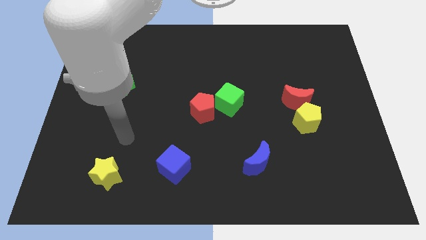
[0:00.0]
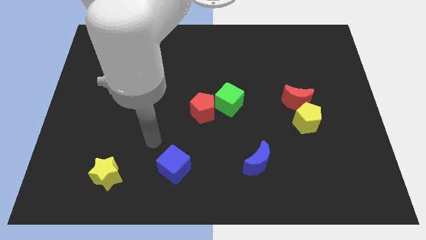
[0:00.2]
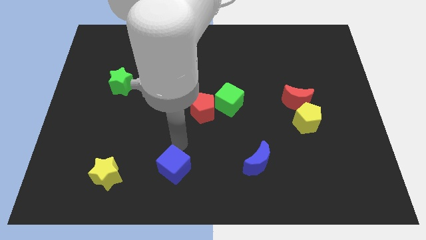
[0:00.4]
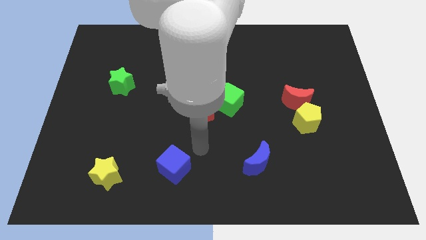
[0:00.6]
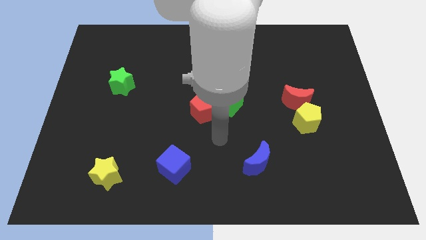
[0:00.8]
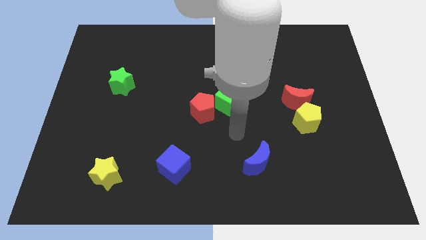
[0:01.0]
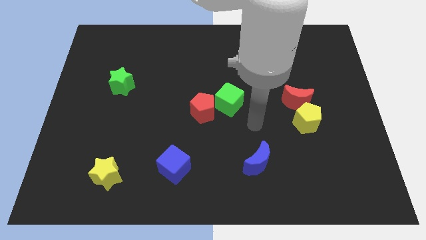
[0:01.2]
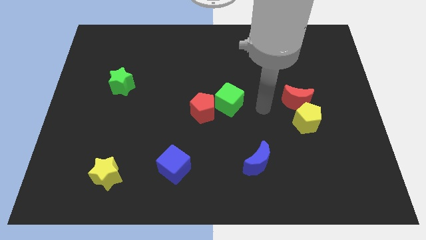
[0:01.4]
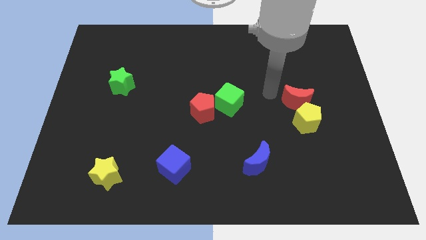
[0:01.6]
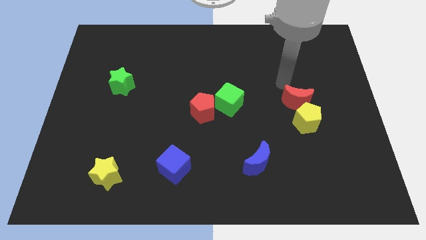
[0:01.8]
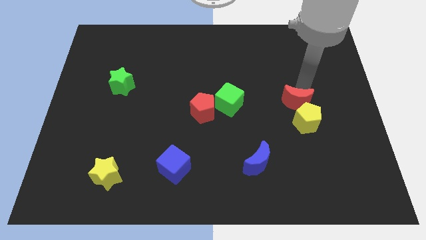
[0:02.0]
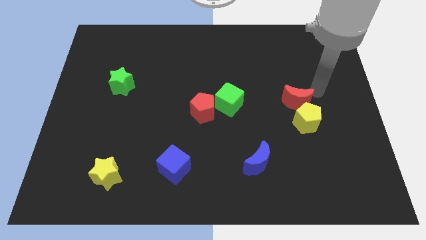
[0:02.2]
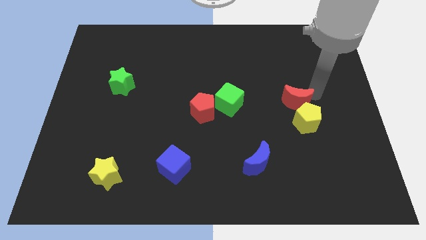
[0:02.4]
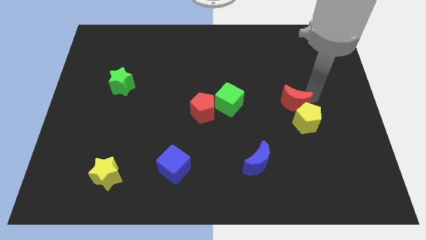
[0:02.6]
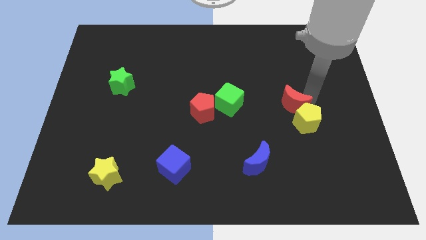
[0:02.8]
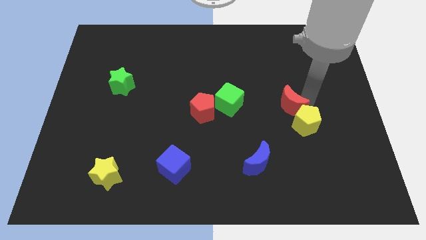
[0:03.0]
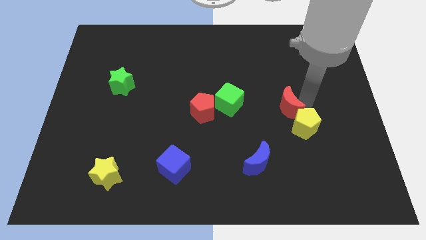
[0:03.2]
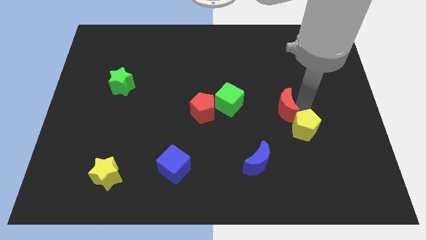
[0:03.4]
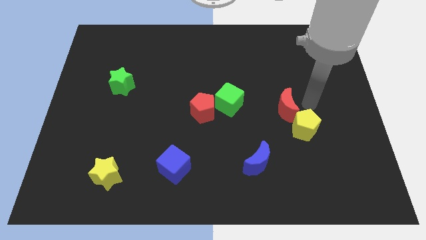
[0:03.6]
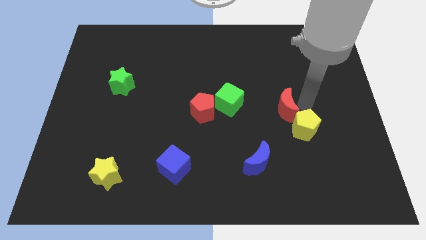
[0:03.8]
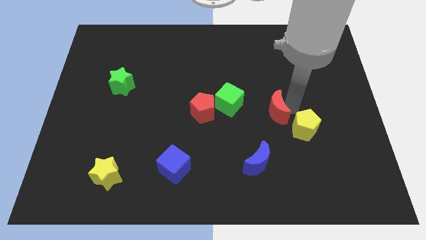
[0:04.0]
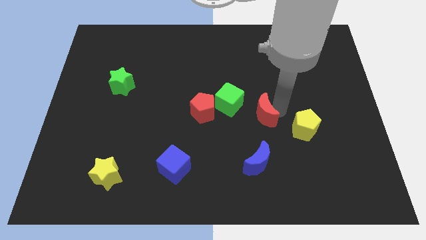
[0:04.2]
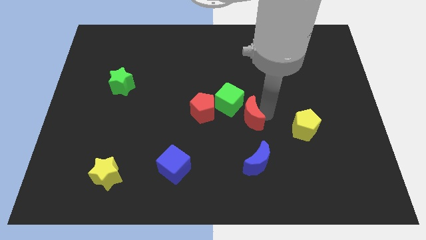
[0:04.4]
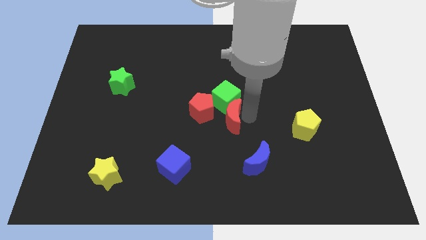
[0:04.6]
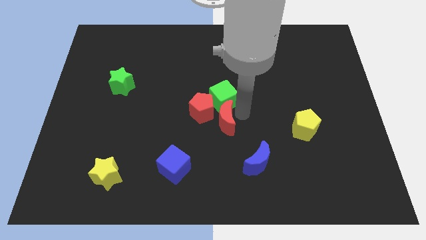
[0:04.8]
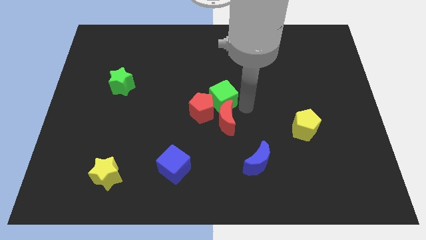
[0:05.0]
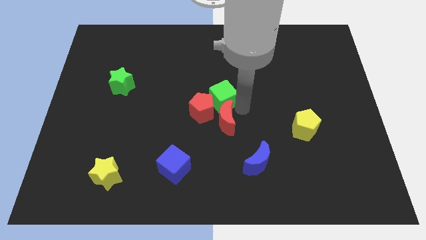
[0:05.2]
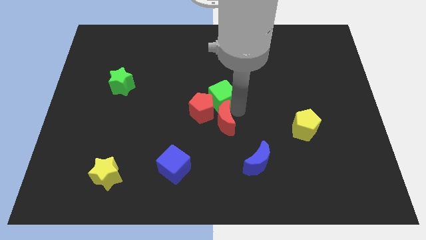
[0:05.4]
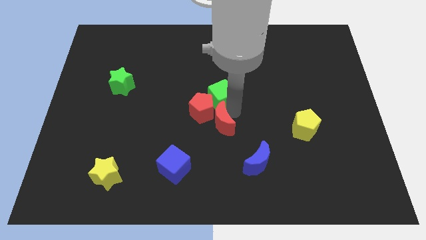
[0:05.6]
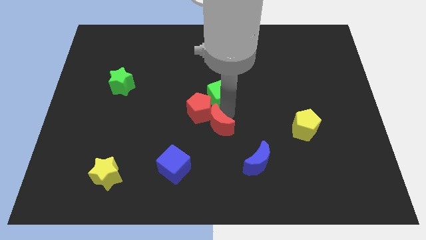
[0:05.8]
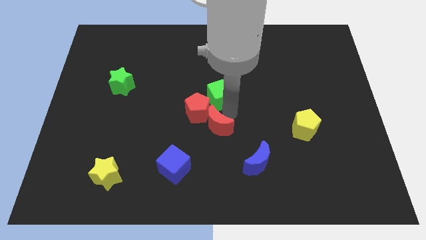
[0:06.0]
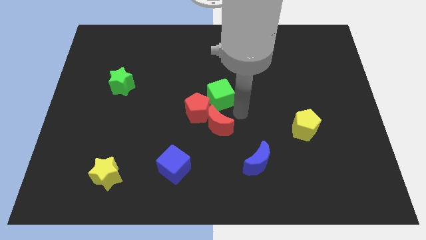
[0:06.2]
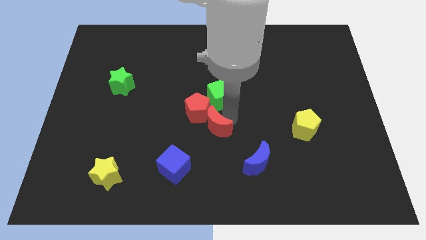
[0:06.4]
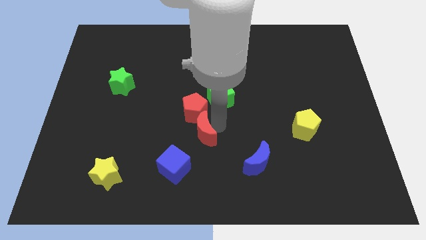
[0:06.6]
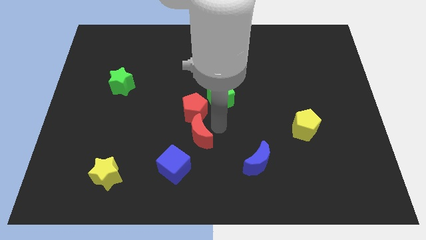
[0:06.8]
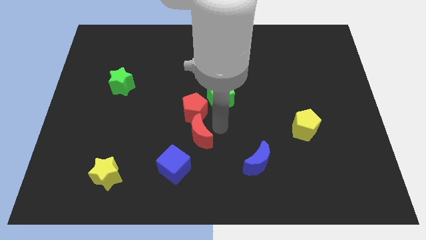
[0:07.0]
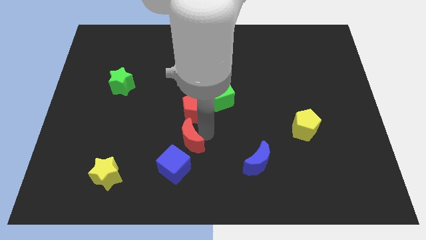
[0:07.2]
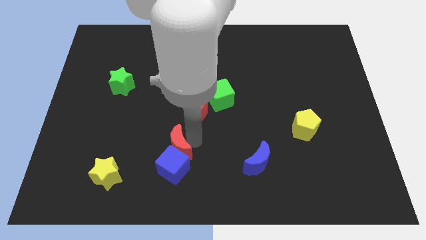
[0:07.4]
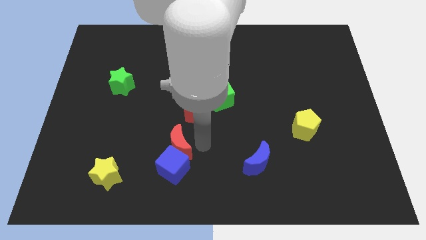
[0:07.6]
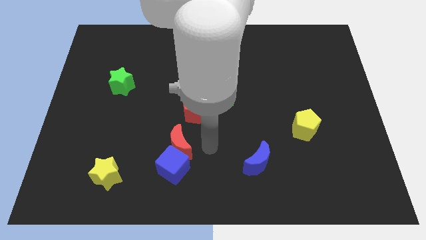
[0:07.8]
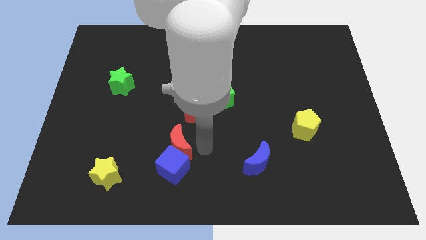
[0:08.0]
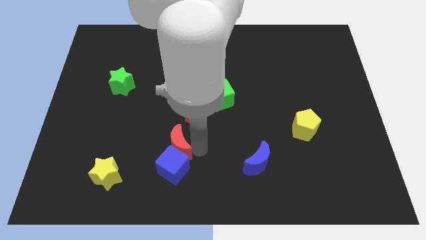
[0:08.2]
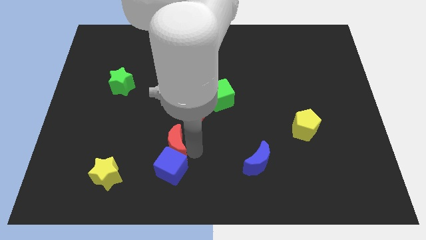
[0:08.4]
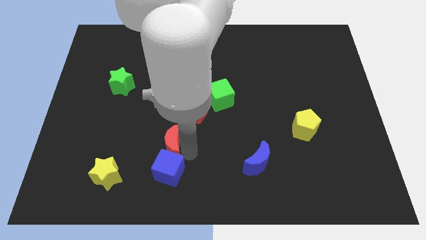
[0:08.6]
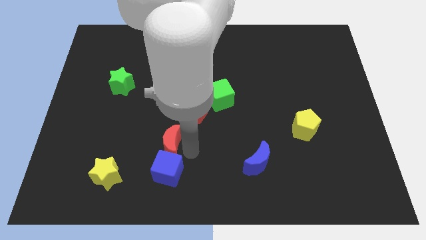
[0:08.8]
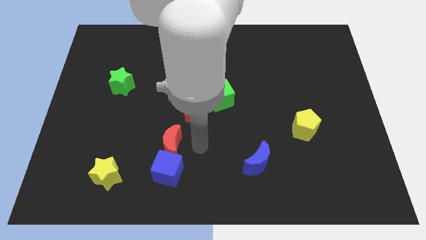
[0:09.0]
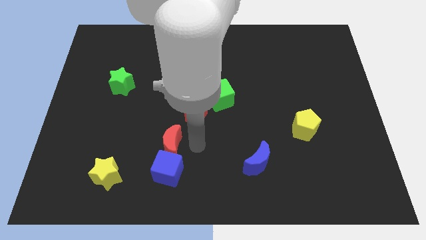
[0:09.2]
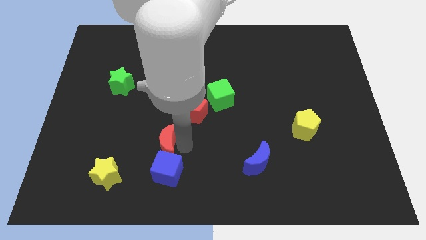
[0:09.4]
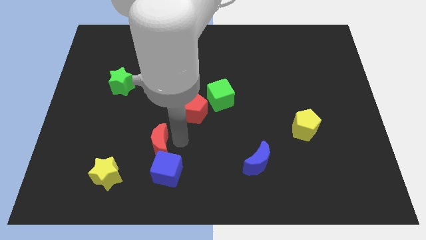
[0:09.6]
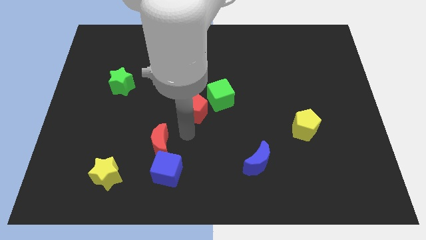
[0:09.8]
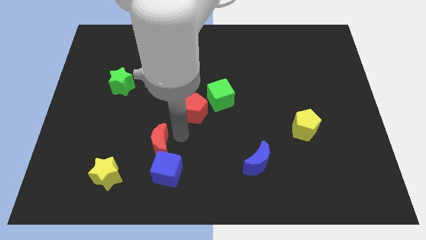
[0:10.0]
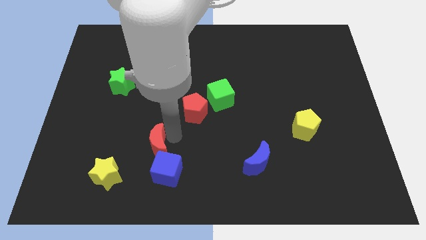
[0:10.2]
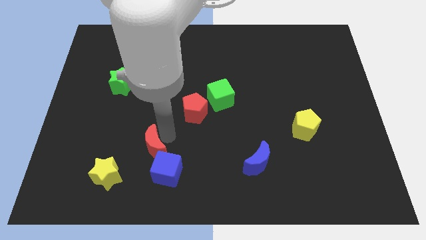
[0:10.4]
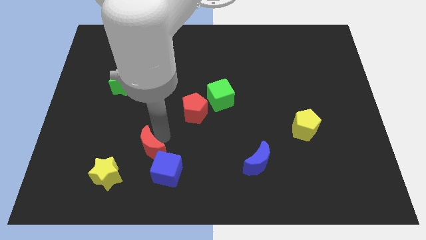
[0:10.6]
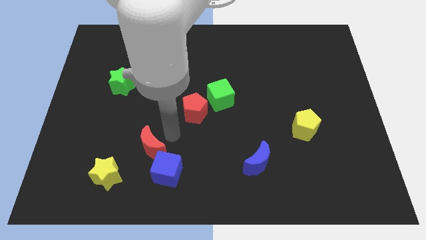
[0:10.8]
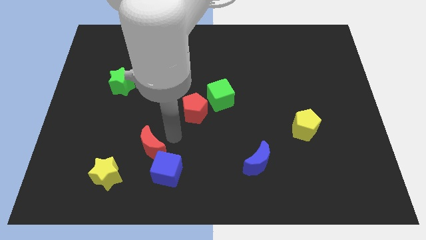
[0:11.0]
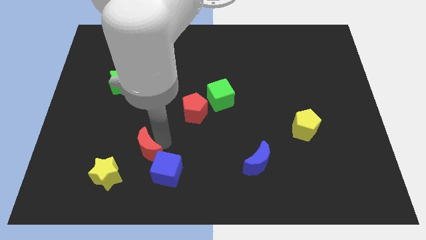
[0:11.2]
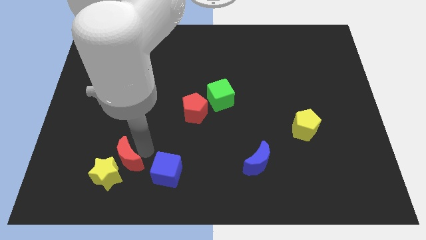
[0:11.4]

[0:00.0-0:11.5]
put the red moon close to the yellow star

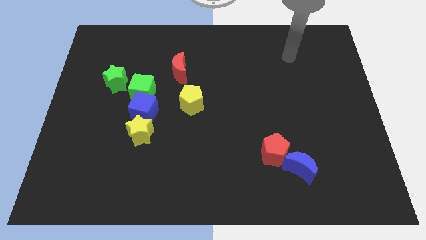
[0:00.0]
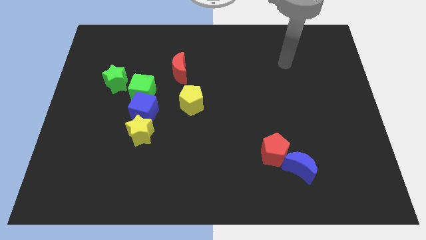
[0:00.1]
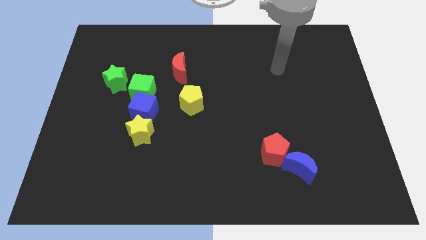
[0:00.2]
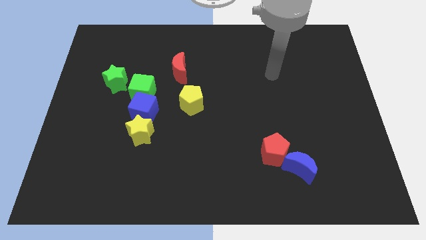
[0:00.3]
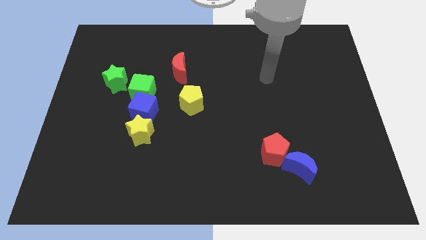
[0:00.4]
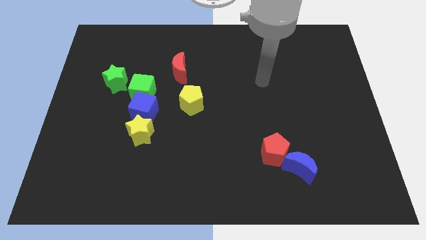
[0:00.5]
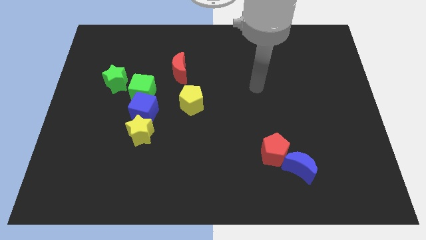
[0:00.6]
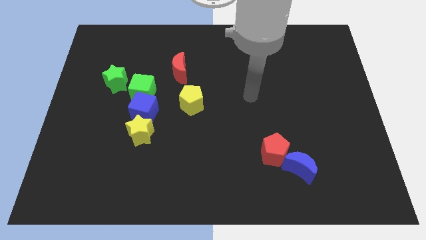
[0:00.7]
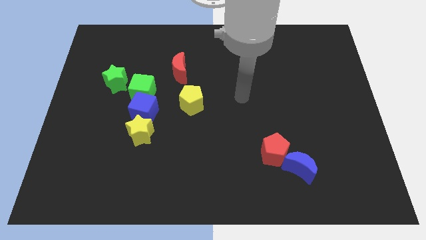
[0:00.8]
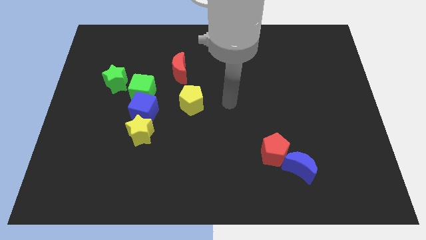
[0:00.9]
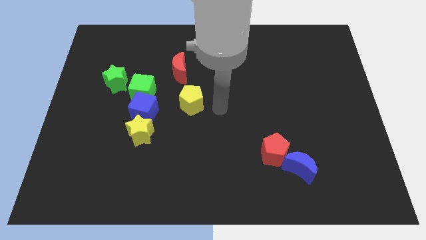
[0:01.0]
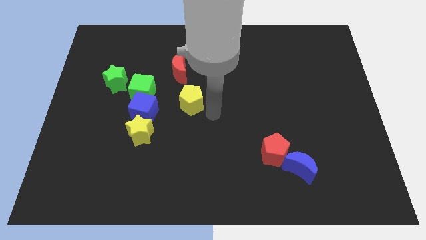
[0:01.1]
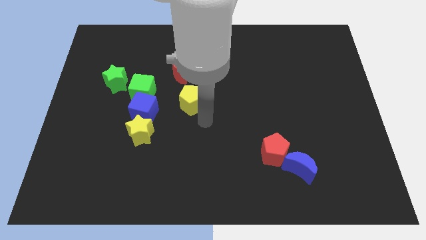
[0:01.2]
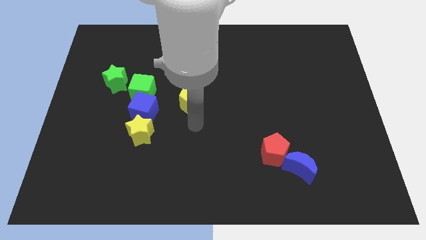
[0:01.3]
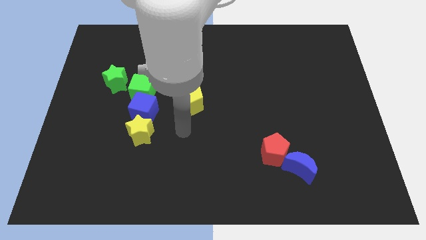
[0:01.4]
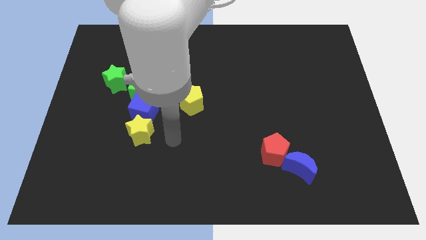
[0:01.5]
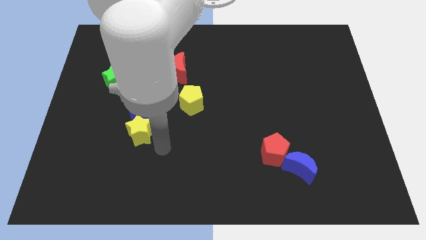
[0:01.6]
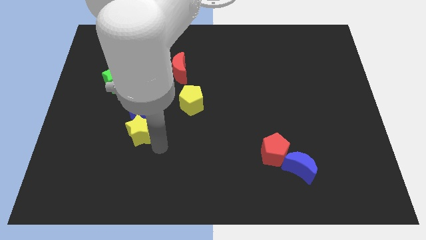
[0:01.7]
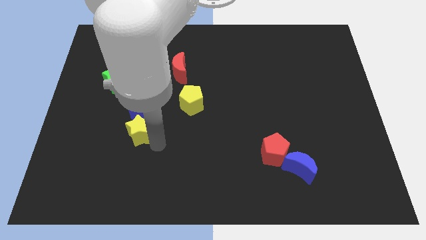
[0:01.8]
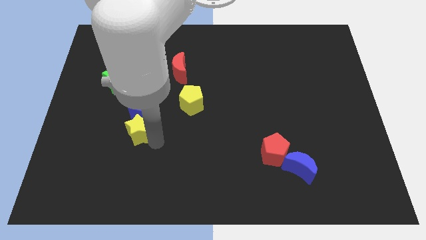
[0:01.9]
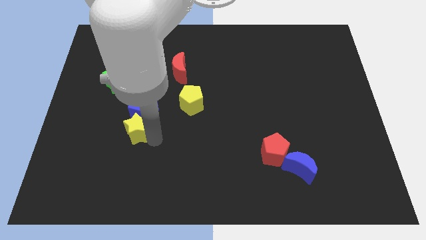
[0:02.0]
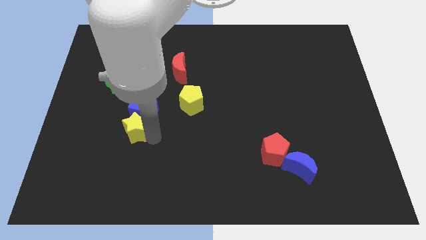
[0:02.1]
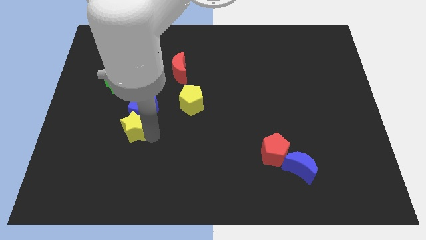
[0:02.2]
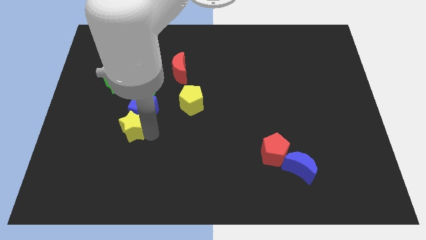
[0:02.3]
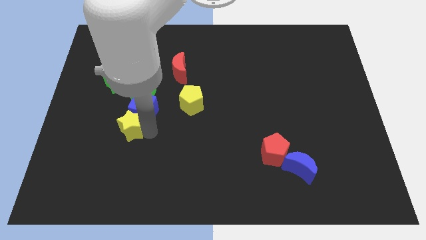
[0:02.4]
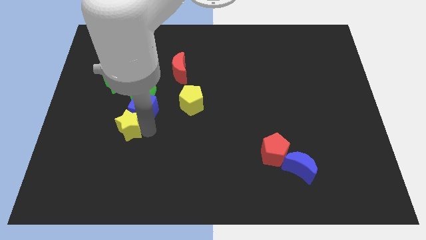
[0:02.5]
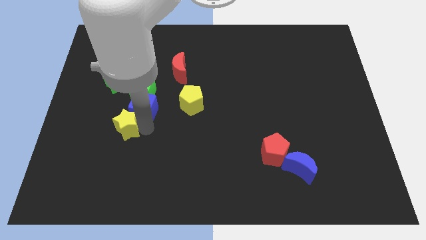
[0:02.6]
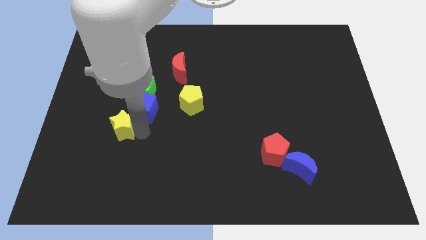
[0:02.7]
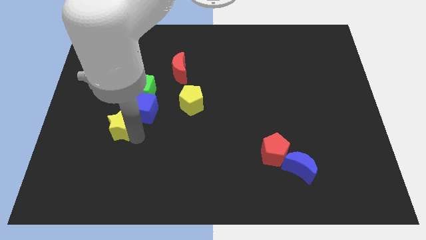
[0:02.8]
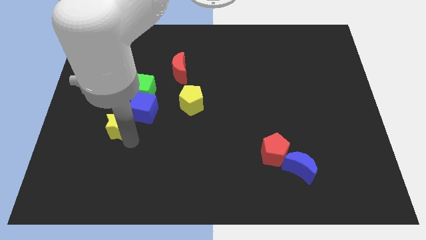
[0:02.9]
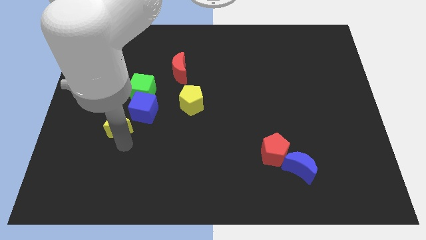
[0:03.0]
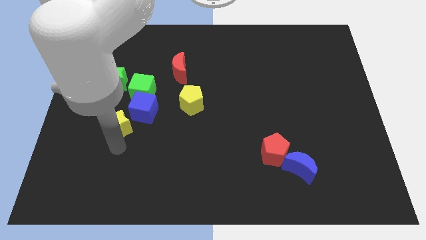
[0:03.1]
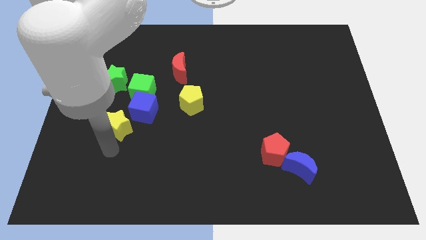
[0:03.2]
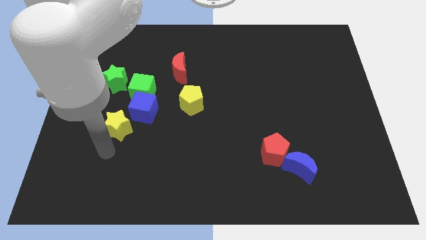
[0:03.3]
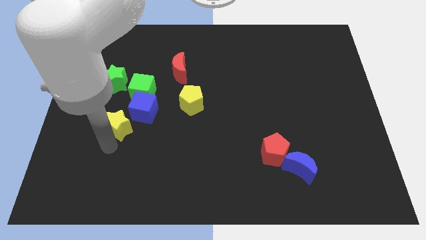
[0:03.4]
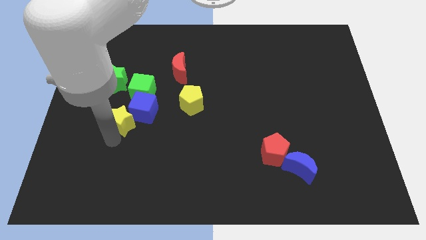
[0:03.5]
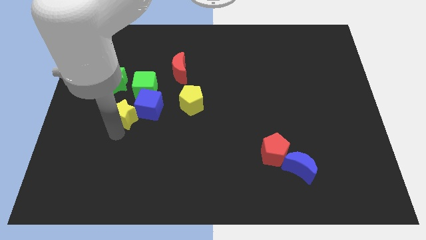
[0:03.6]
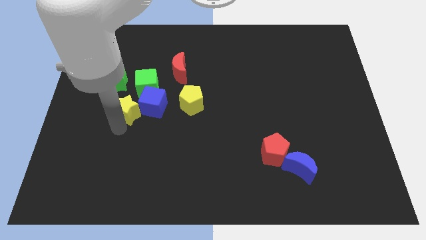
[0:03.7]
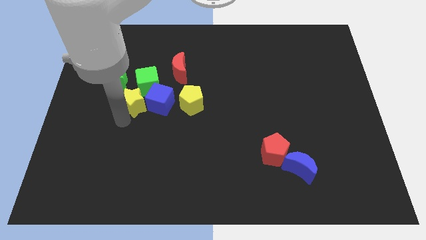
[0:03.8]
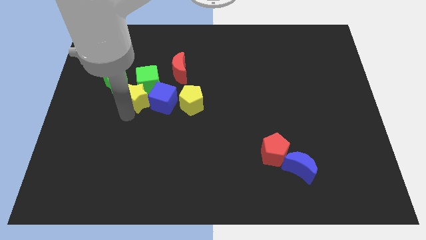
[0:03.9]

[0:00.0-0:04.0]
slide the yellow star towards the green cube
